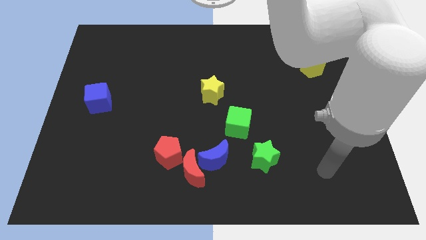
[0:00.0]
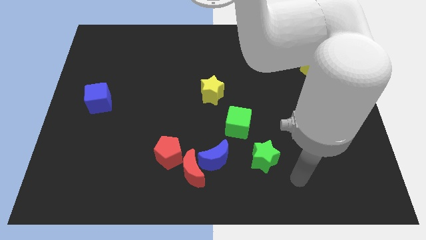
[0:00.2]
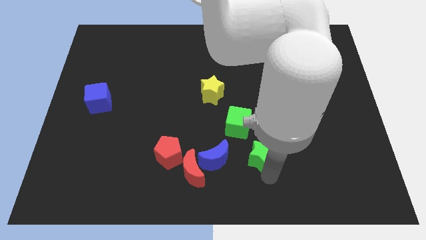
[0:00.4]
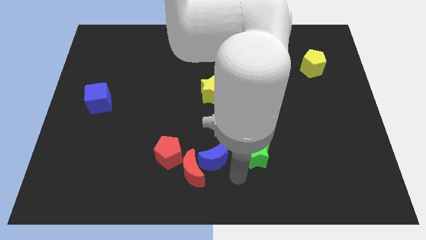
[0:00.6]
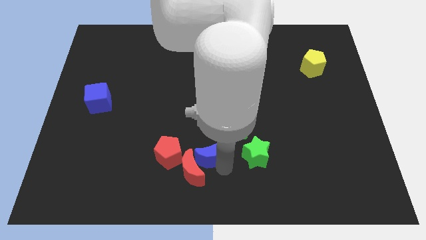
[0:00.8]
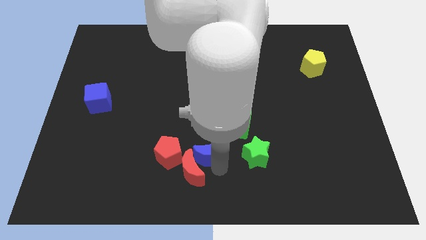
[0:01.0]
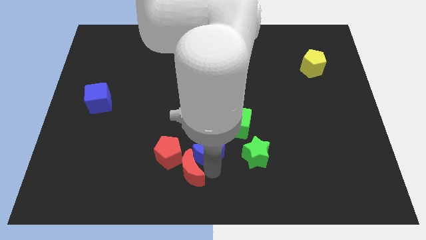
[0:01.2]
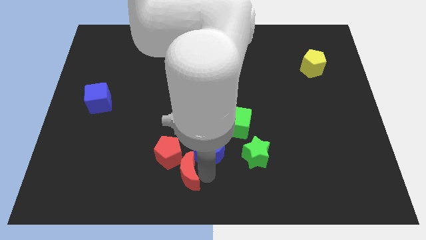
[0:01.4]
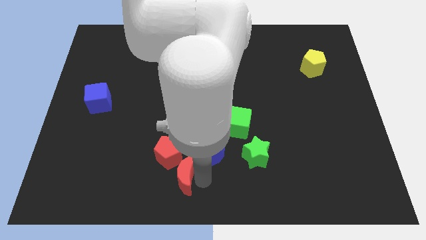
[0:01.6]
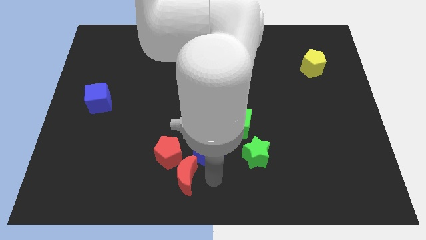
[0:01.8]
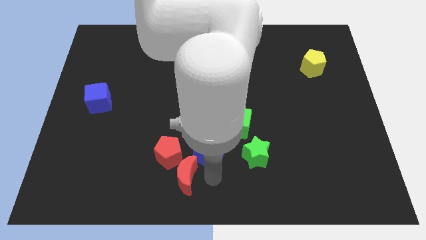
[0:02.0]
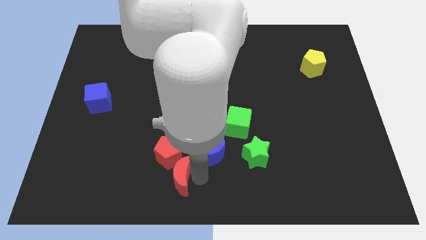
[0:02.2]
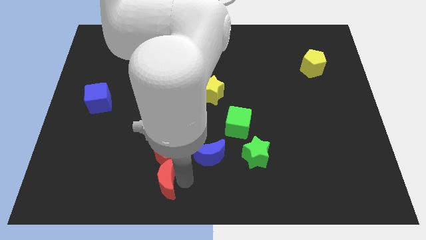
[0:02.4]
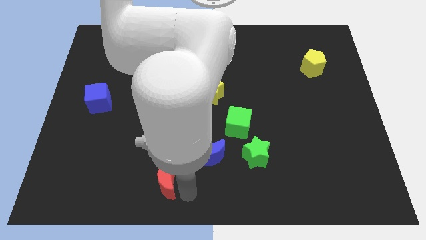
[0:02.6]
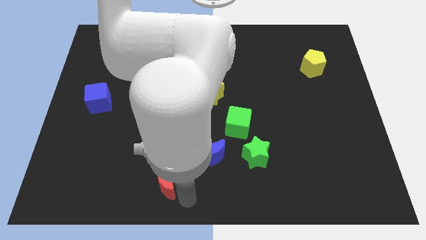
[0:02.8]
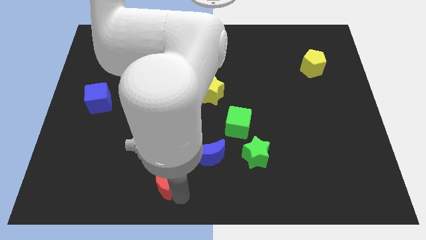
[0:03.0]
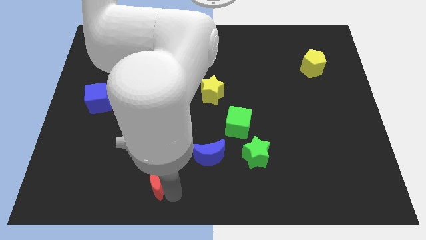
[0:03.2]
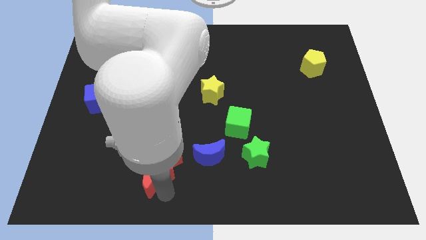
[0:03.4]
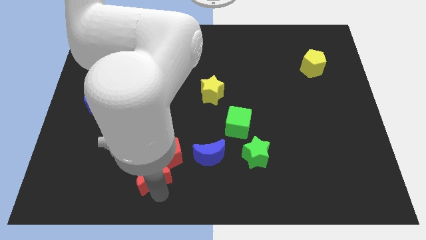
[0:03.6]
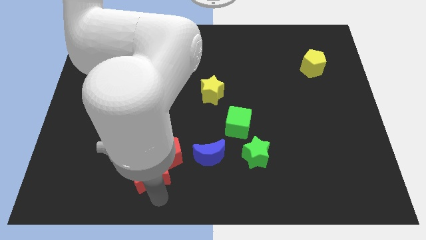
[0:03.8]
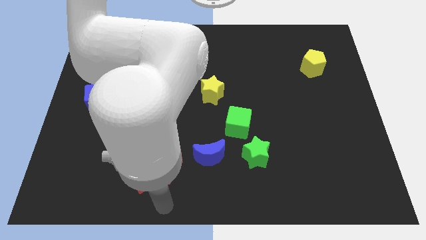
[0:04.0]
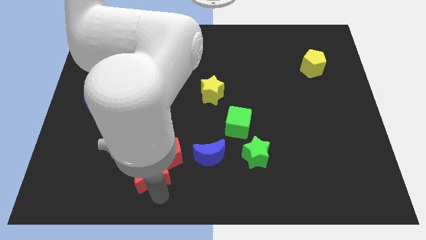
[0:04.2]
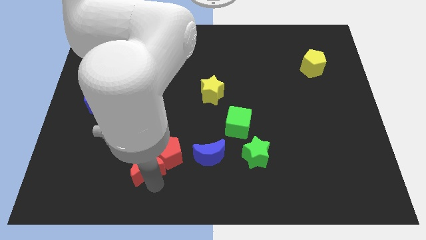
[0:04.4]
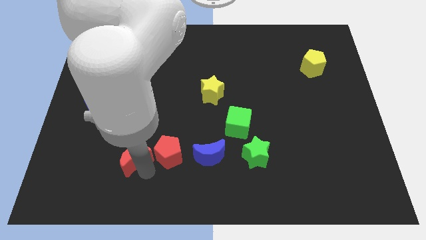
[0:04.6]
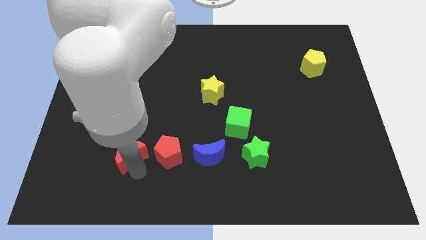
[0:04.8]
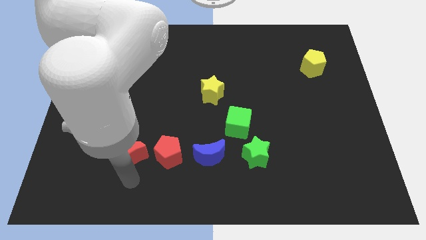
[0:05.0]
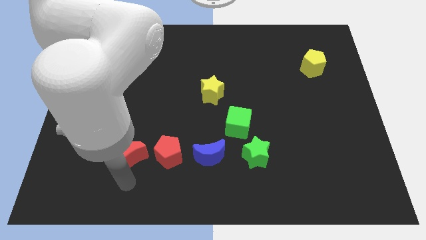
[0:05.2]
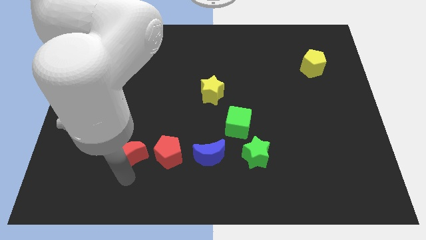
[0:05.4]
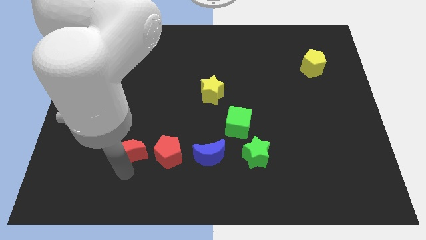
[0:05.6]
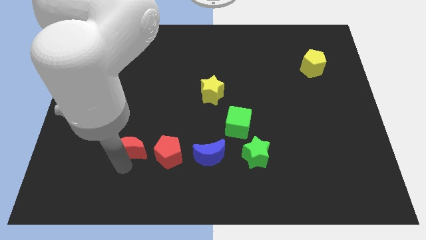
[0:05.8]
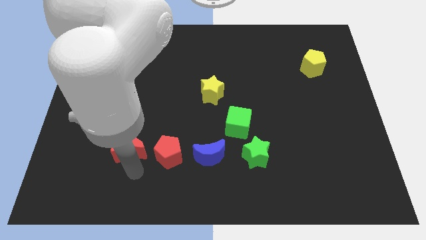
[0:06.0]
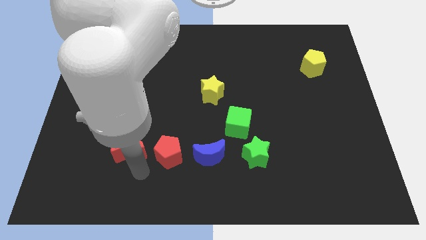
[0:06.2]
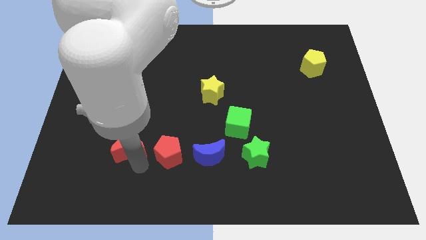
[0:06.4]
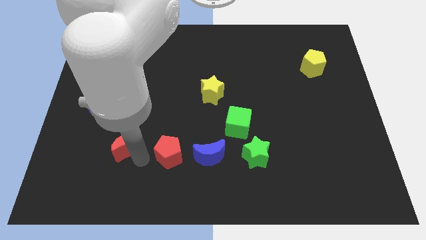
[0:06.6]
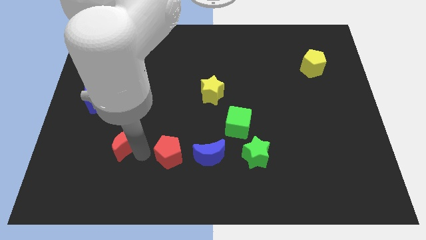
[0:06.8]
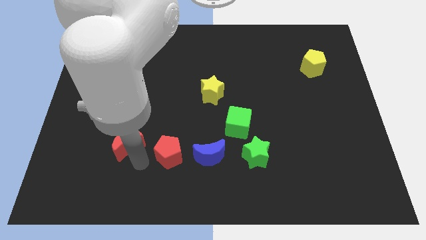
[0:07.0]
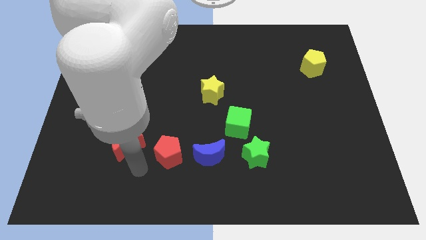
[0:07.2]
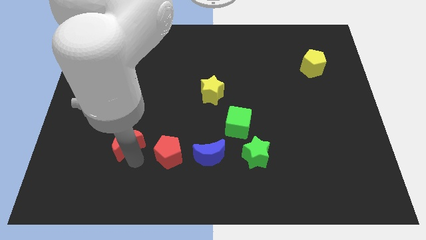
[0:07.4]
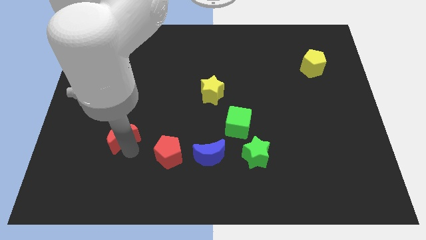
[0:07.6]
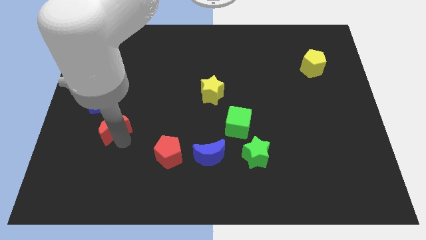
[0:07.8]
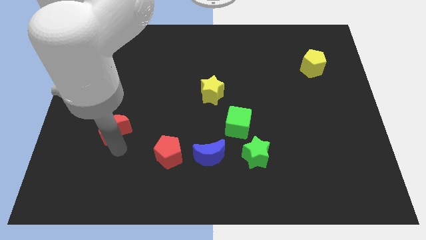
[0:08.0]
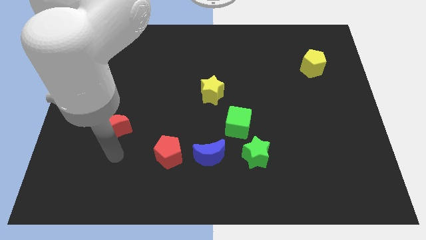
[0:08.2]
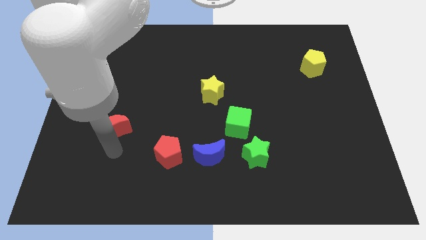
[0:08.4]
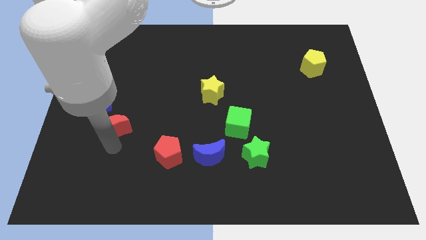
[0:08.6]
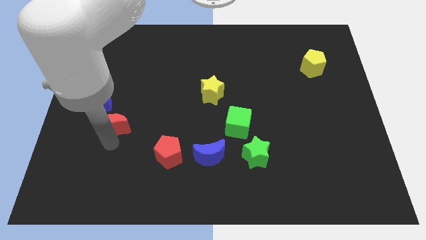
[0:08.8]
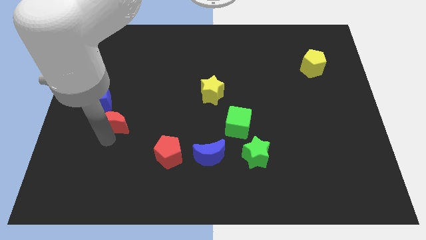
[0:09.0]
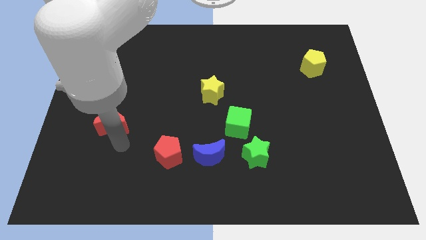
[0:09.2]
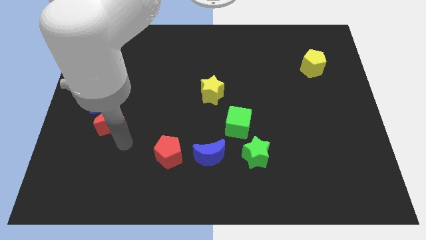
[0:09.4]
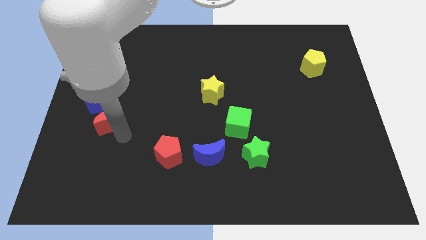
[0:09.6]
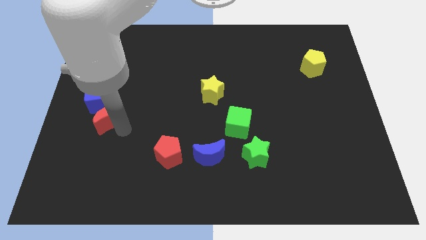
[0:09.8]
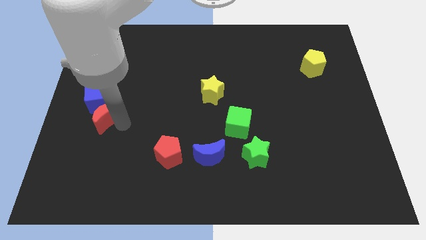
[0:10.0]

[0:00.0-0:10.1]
push the red moon close to the blue cube

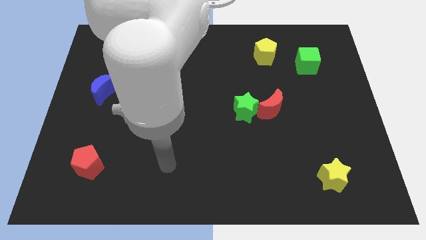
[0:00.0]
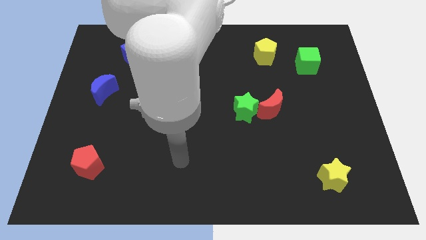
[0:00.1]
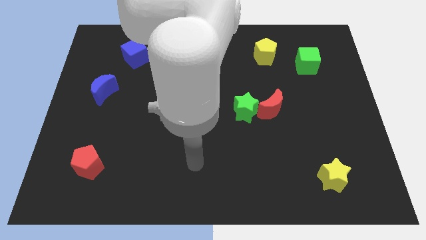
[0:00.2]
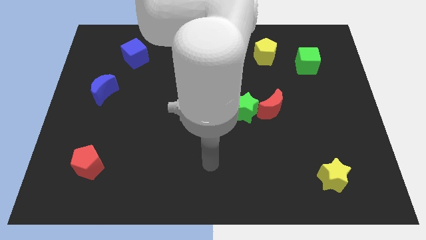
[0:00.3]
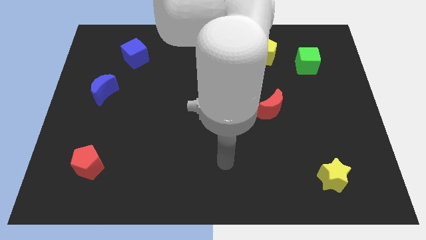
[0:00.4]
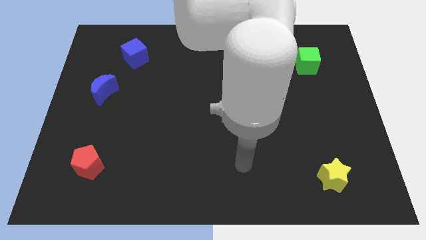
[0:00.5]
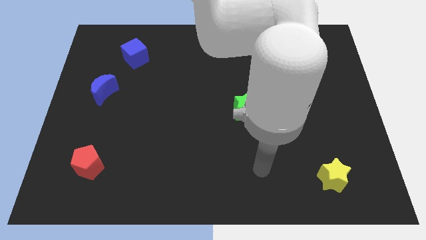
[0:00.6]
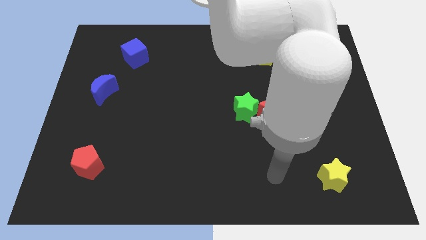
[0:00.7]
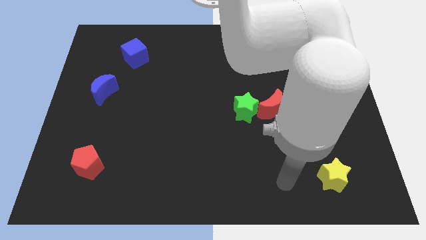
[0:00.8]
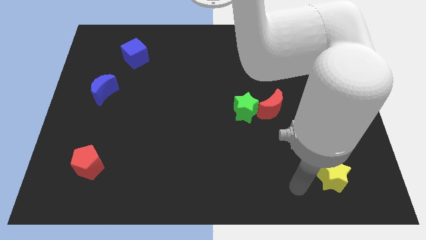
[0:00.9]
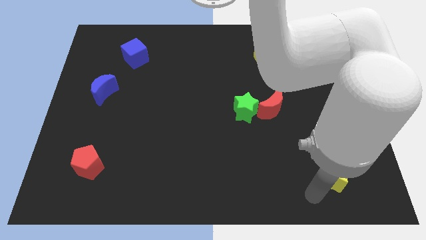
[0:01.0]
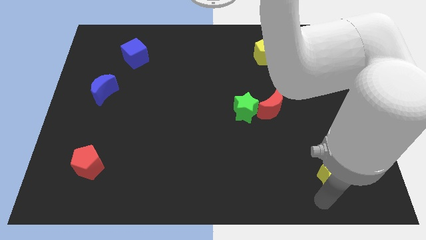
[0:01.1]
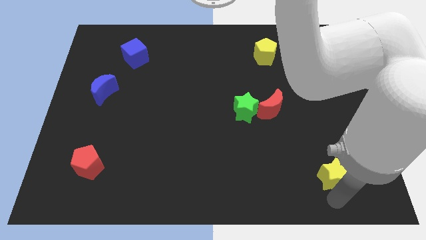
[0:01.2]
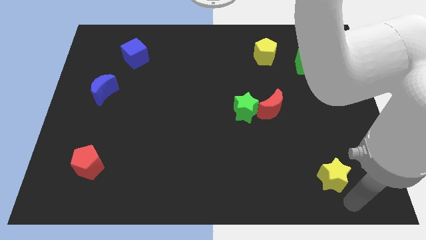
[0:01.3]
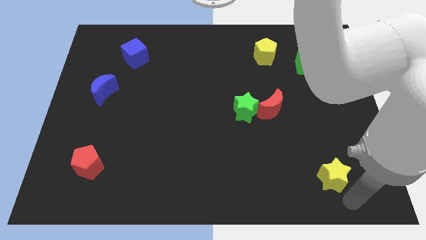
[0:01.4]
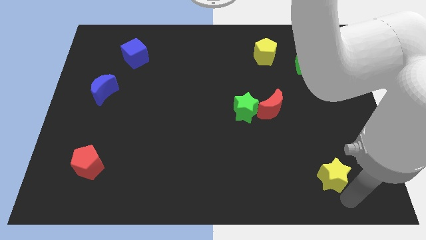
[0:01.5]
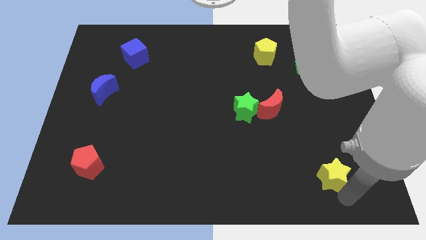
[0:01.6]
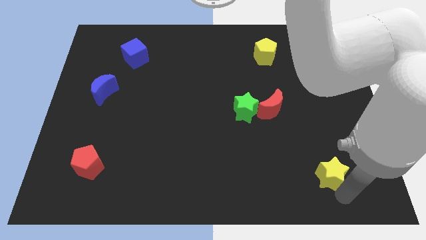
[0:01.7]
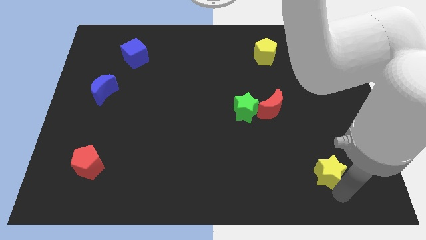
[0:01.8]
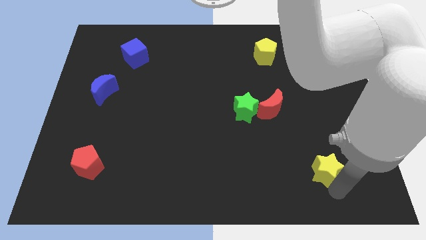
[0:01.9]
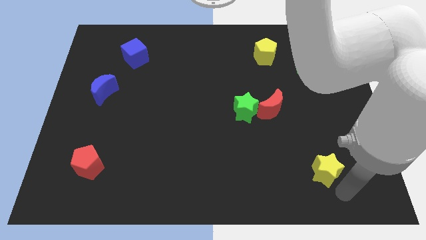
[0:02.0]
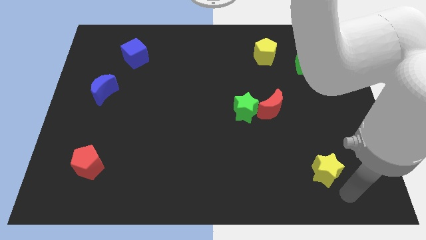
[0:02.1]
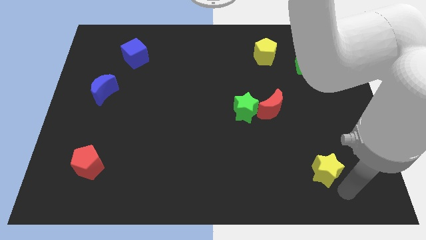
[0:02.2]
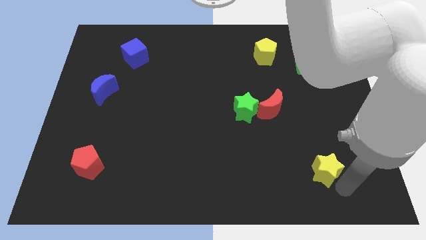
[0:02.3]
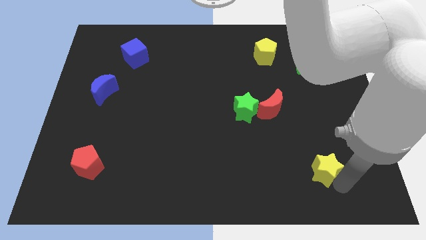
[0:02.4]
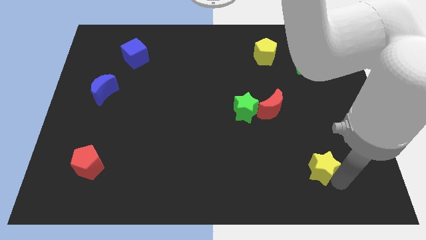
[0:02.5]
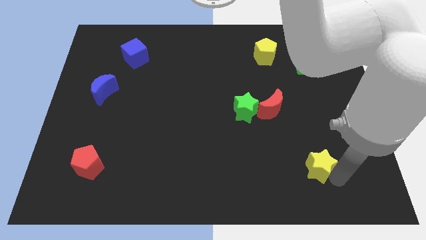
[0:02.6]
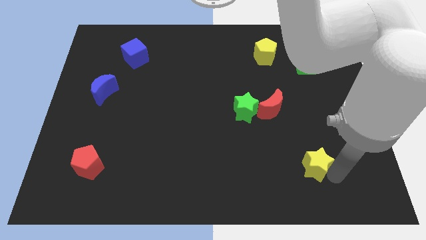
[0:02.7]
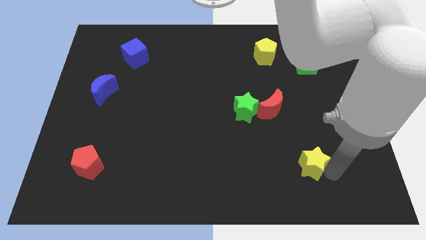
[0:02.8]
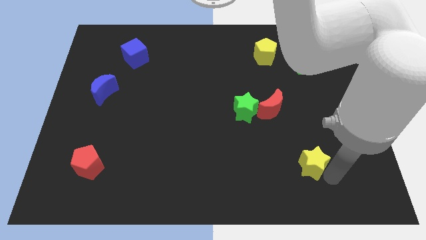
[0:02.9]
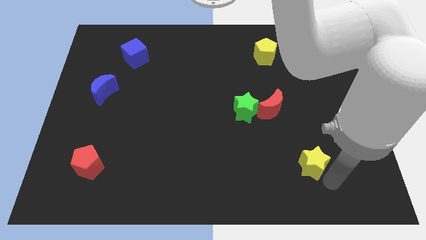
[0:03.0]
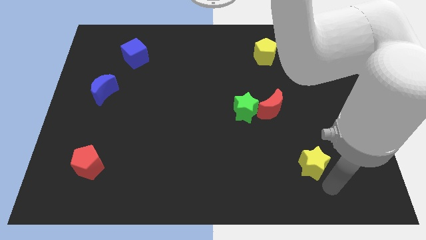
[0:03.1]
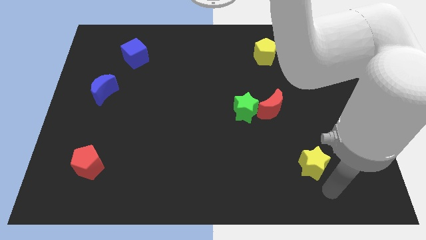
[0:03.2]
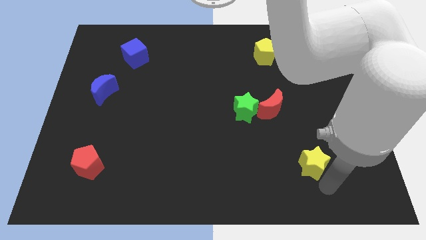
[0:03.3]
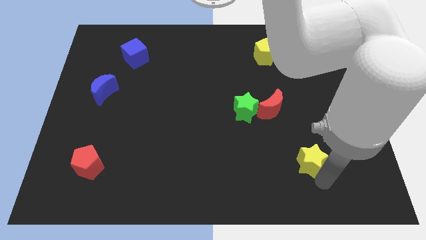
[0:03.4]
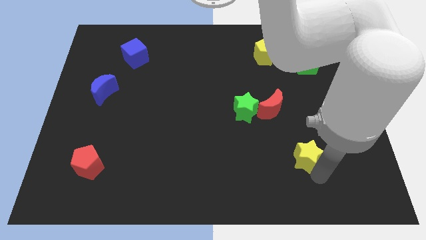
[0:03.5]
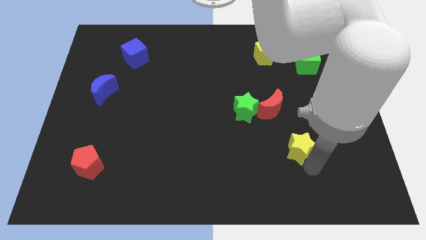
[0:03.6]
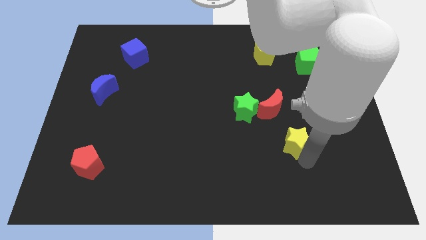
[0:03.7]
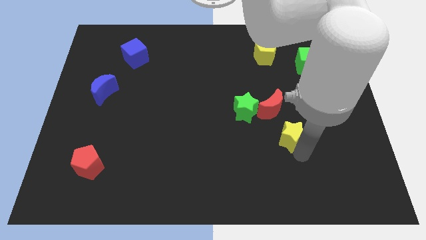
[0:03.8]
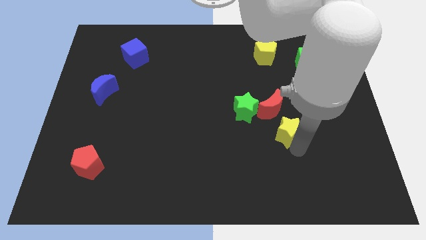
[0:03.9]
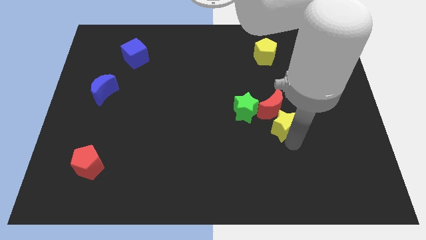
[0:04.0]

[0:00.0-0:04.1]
slide the yellow star to the red moon
